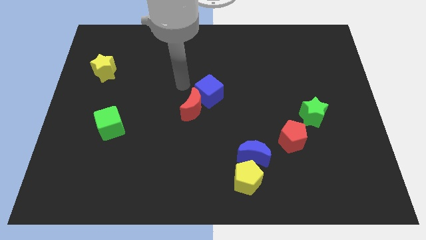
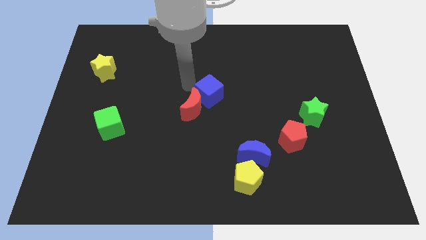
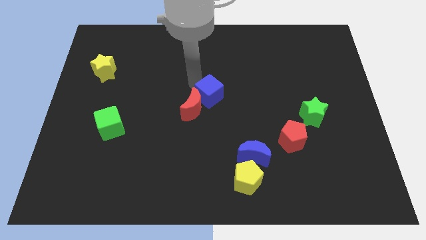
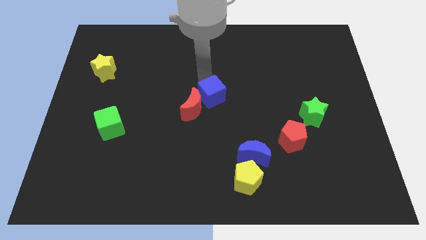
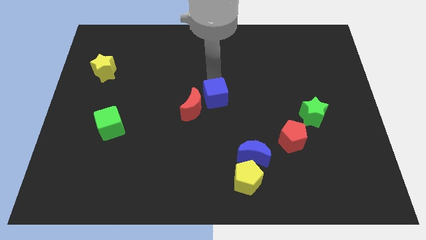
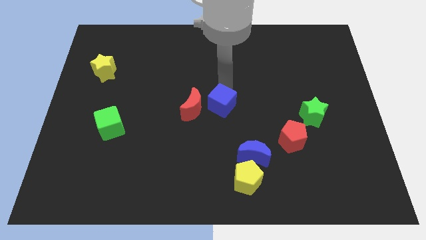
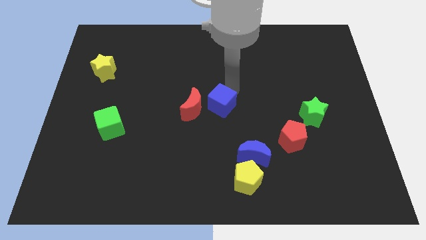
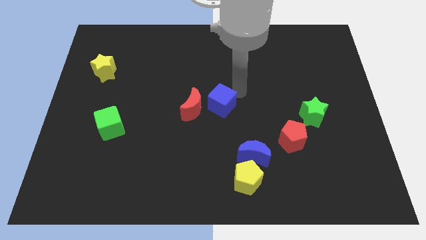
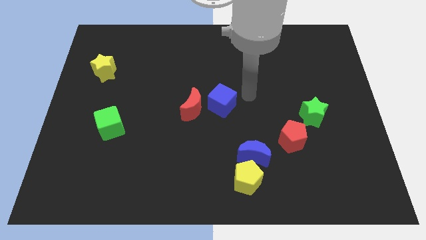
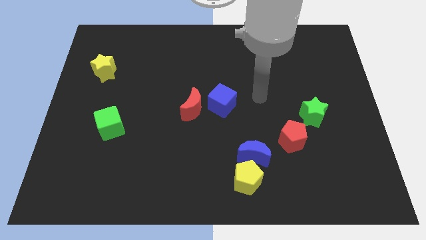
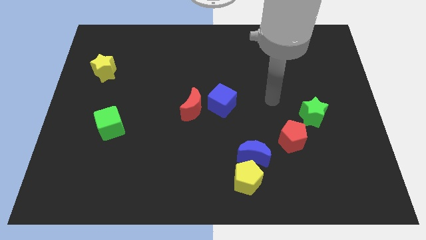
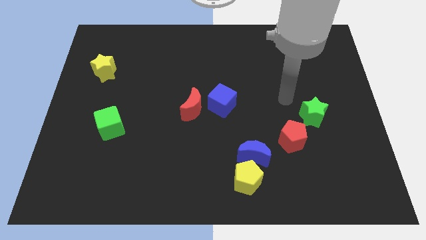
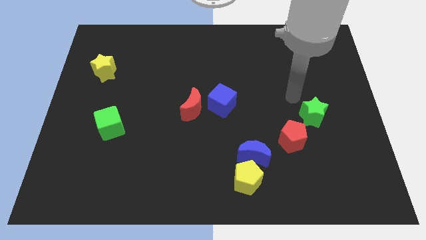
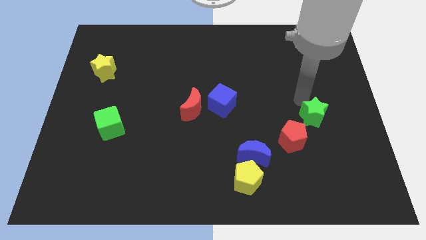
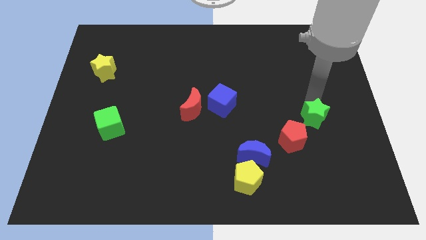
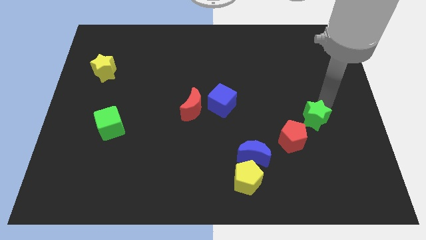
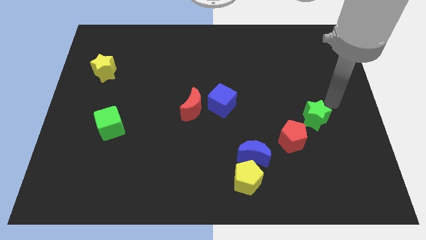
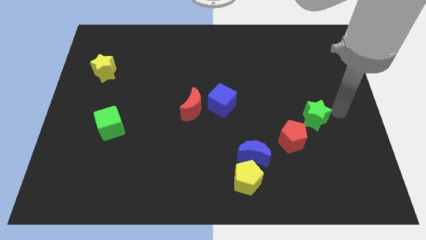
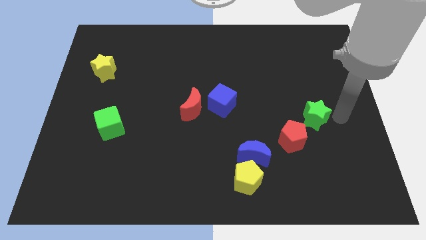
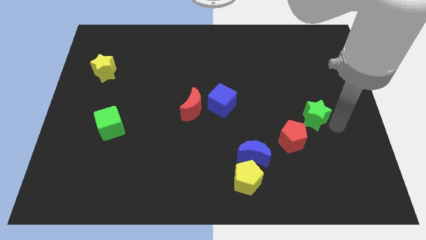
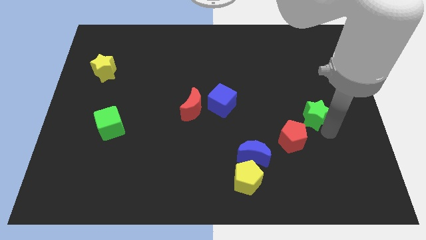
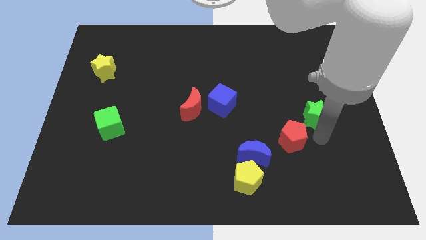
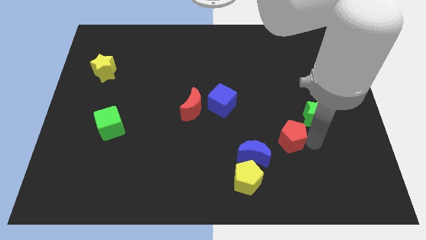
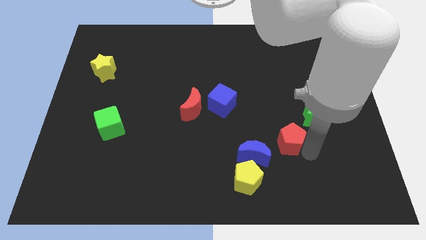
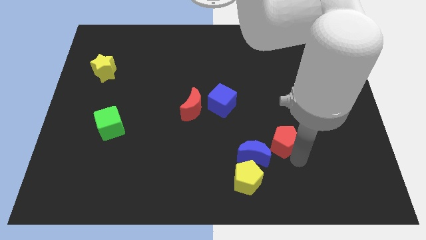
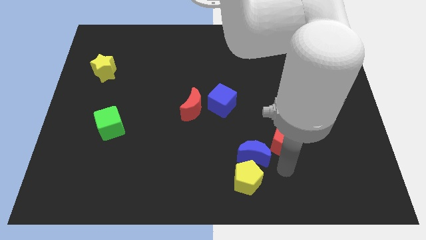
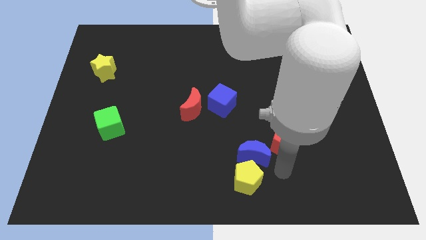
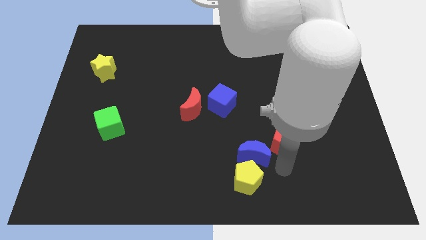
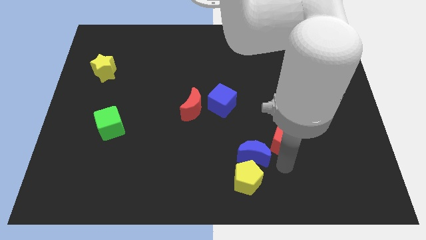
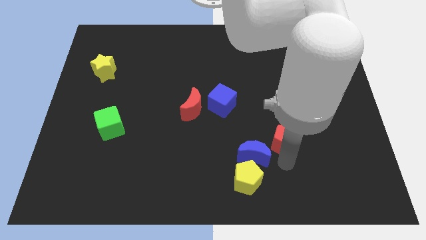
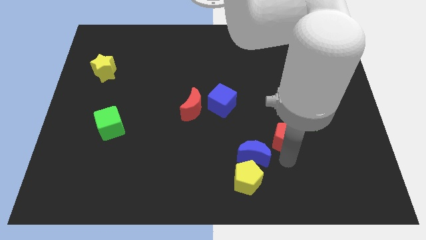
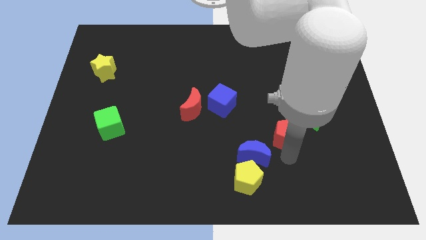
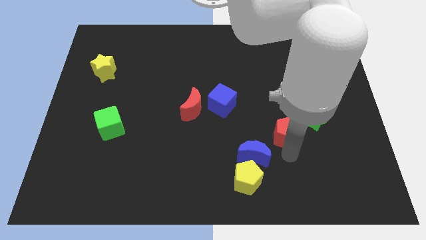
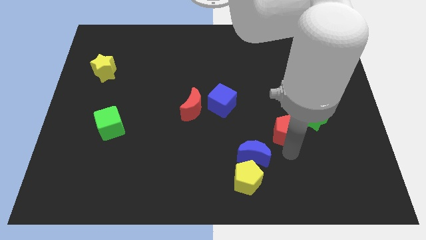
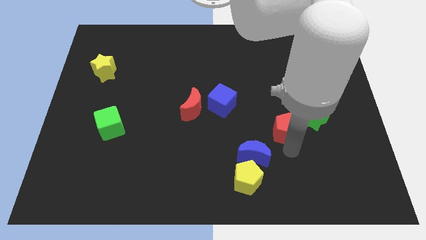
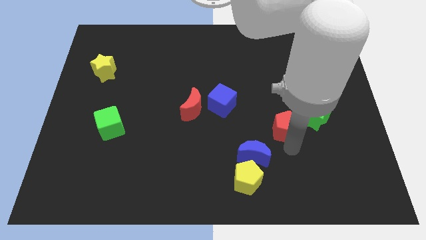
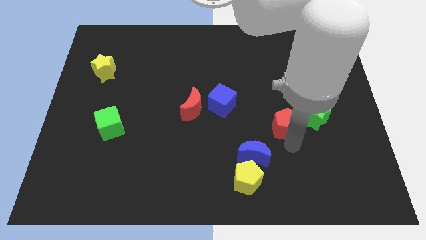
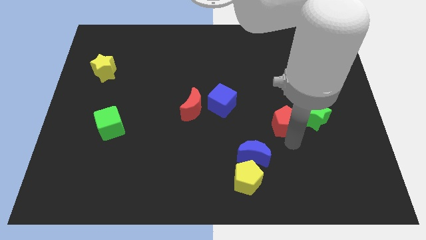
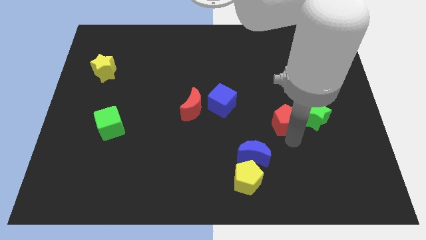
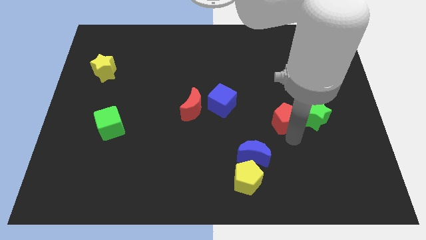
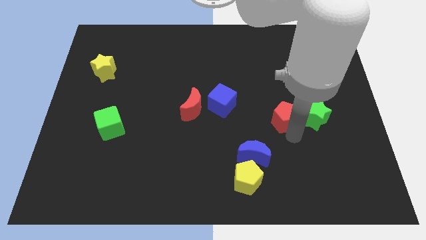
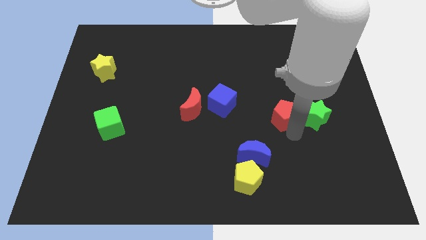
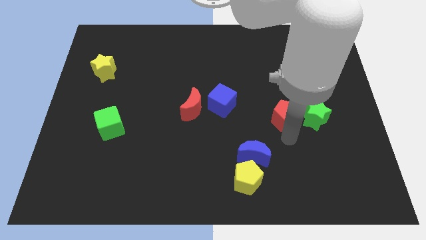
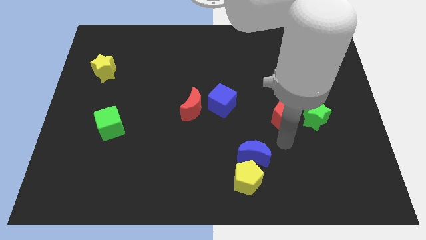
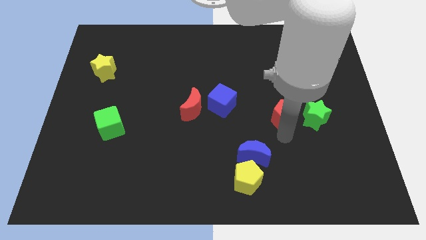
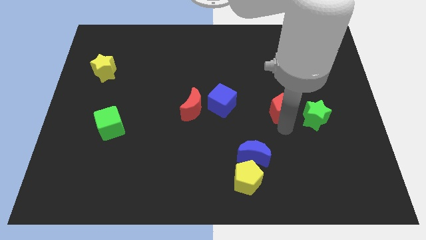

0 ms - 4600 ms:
push the red pentagon slightly upwards

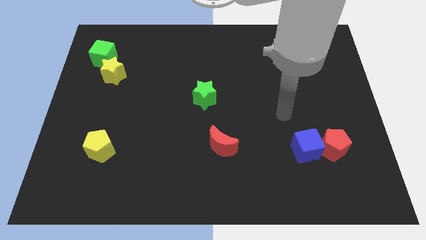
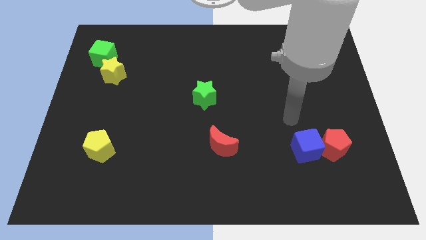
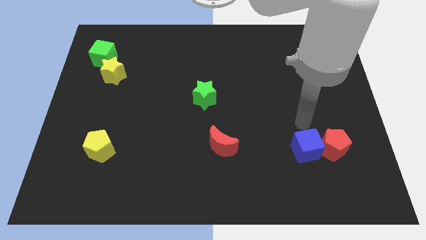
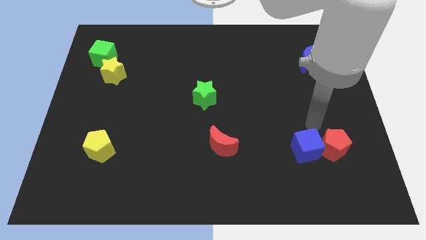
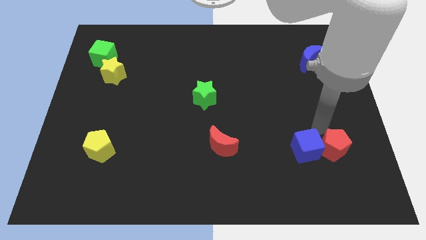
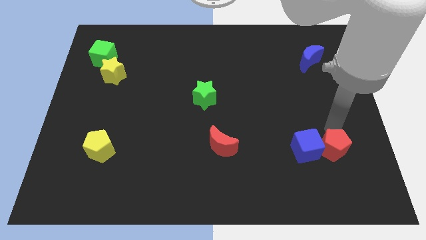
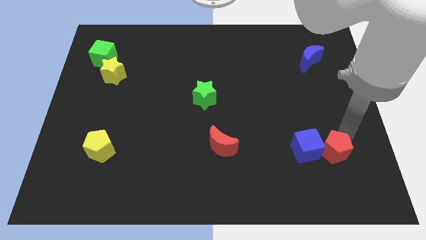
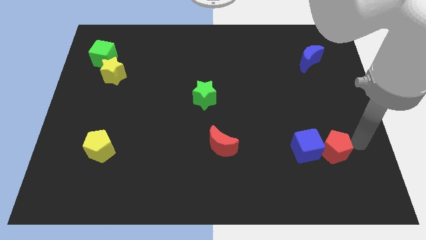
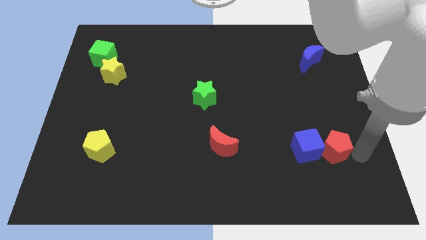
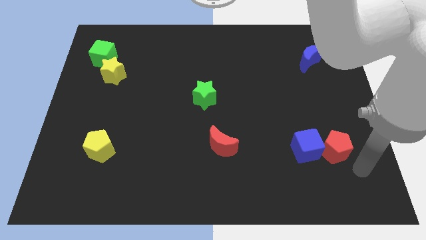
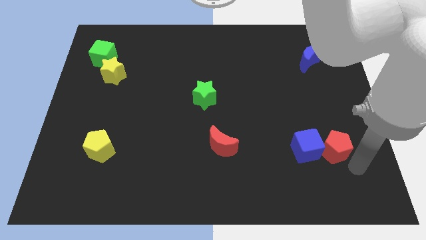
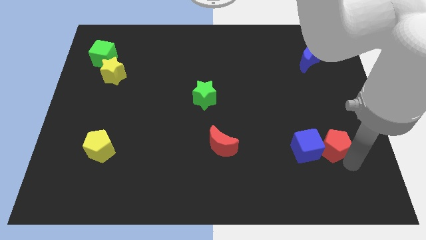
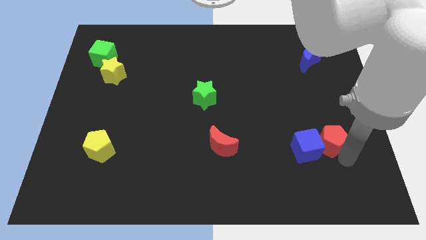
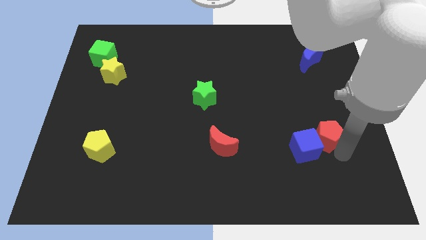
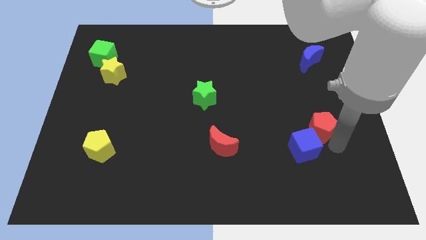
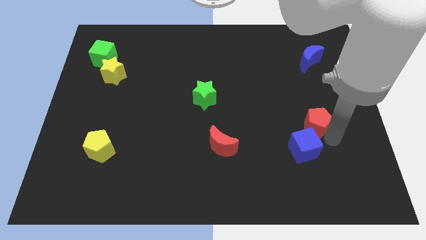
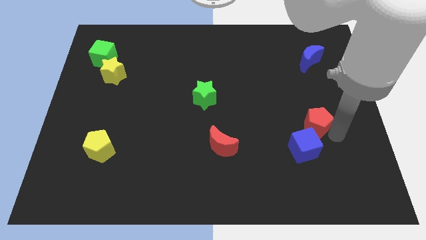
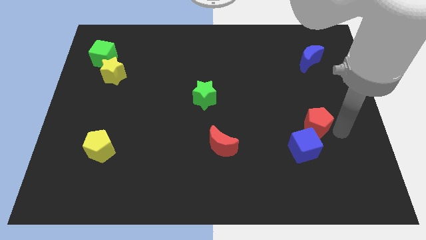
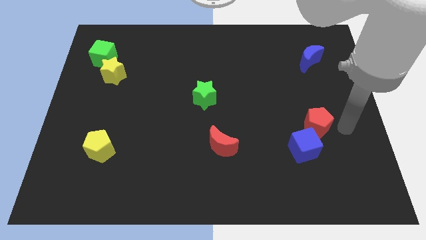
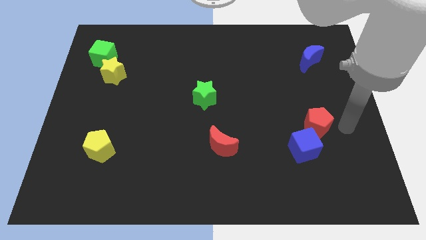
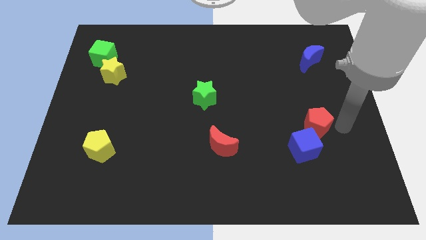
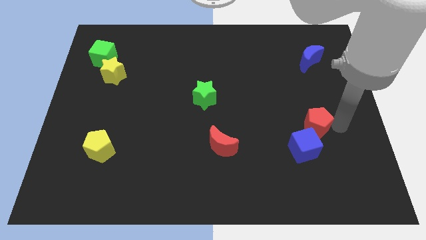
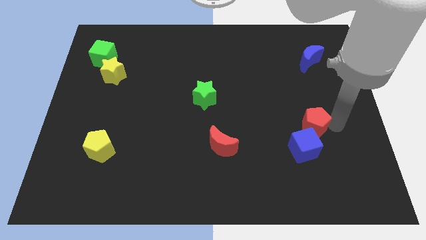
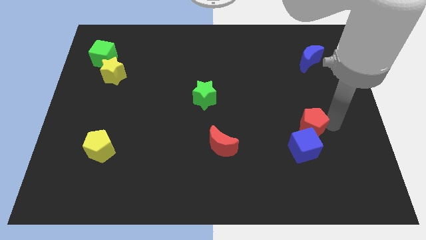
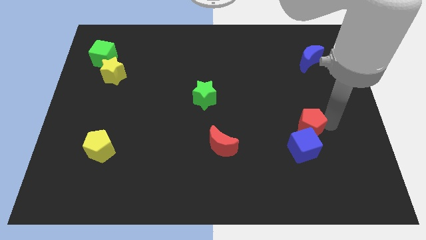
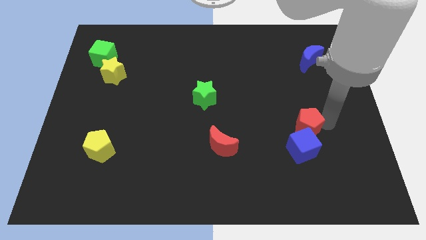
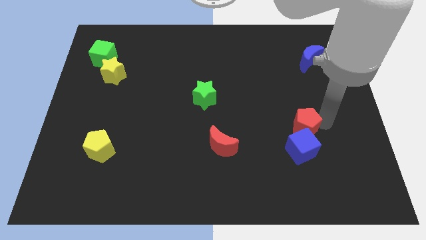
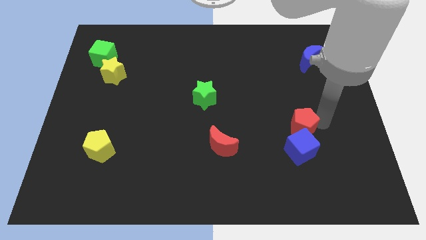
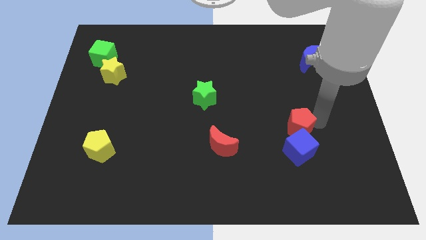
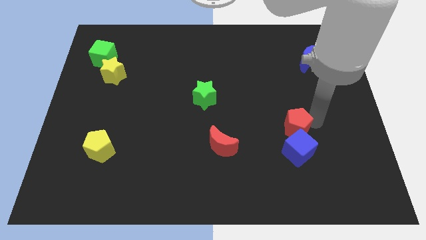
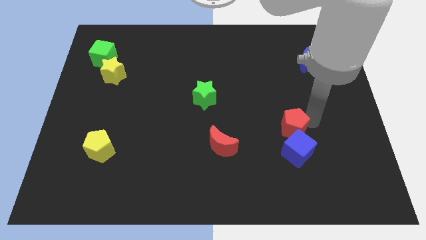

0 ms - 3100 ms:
push the red pentagon a little bit to the left

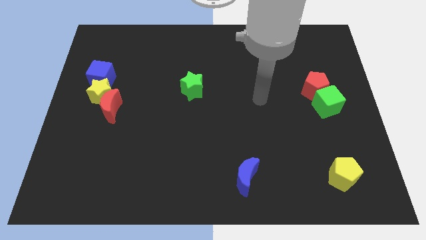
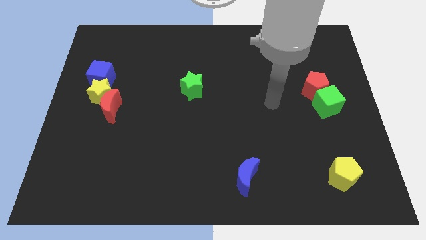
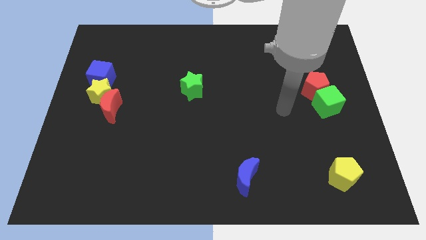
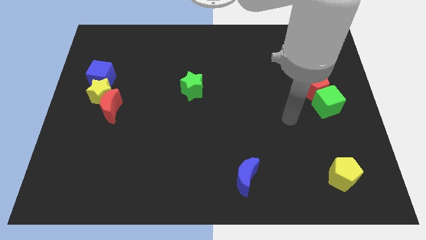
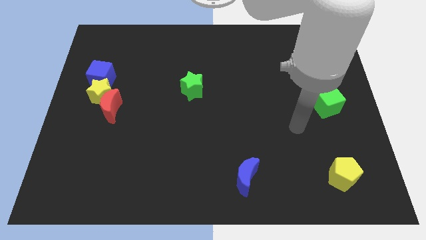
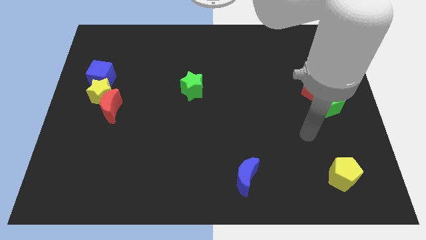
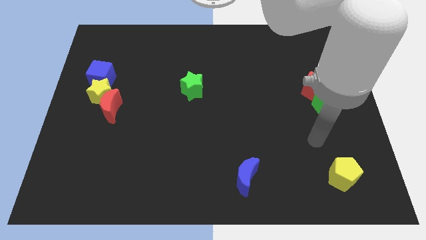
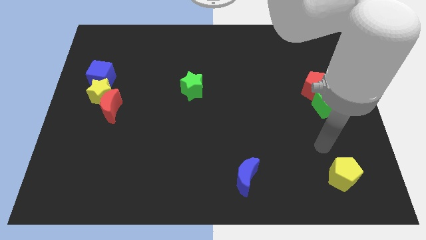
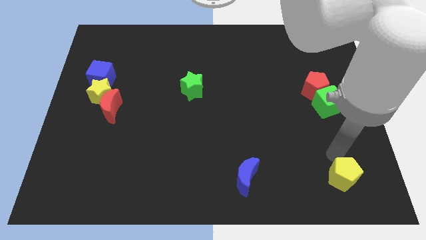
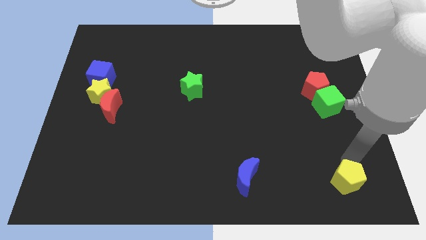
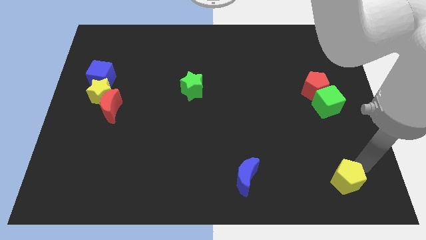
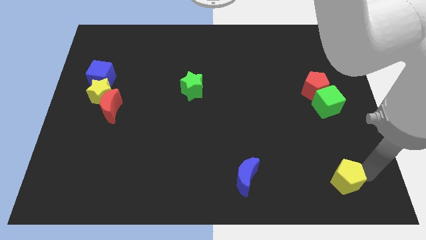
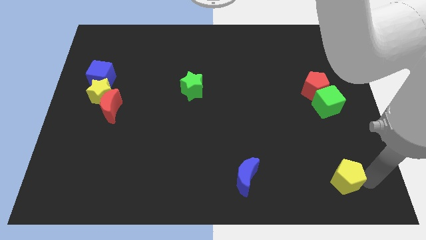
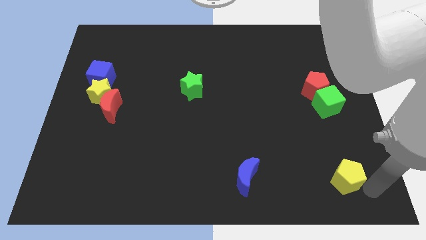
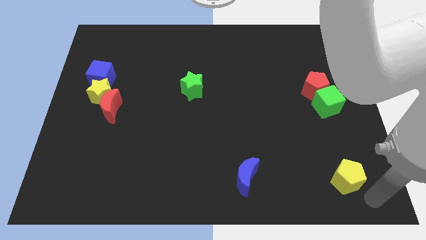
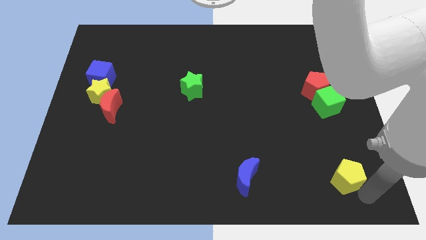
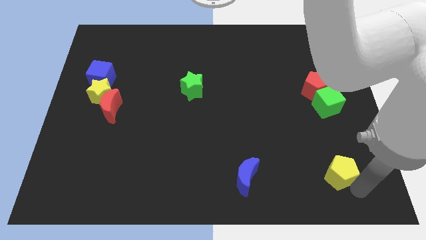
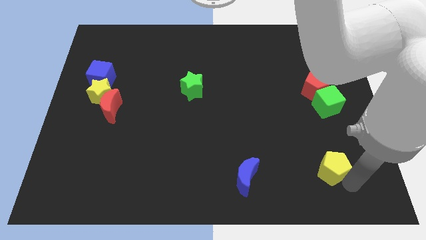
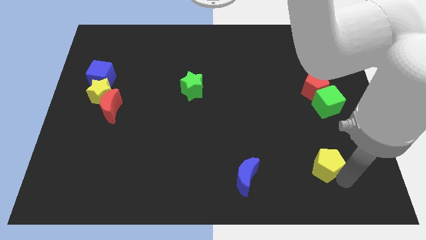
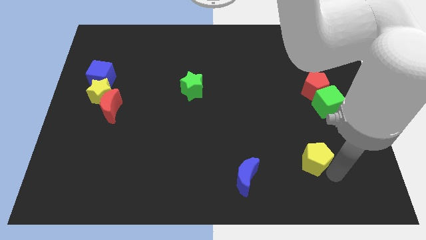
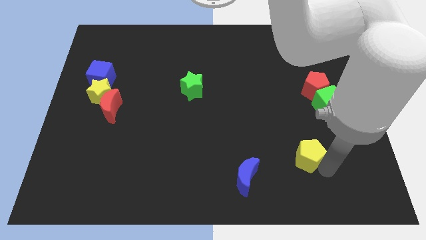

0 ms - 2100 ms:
push the yellow pentagon up and then left a little bit
